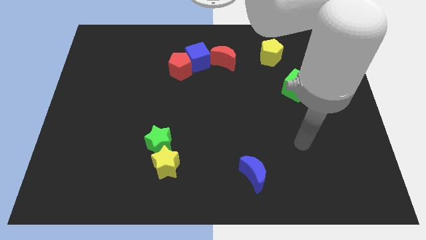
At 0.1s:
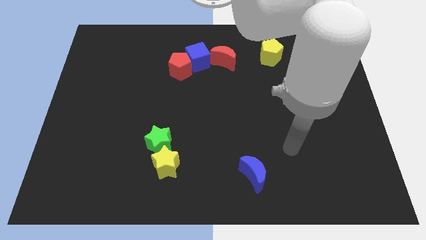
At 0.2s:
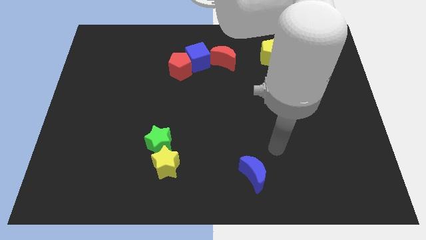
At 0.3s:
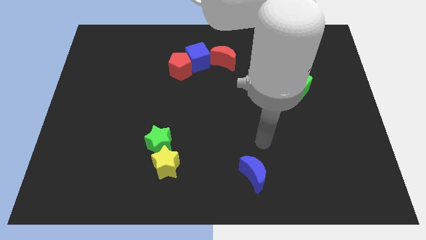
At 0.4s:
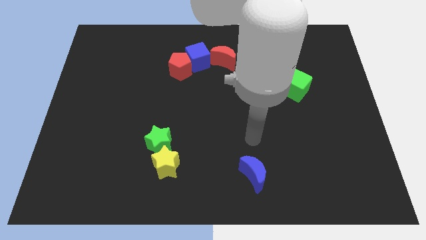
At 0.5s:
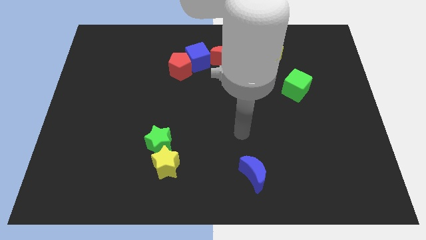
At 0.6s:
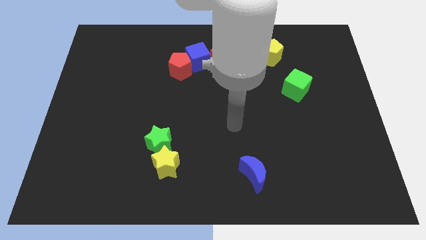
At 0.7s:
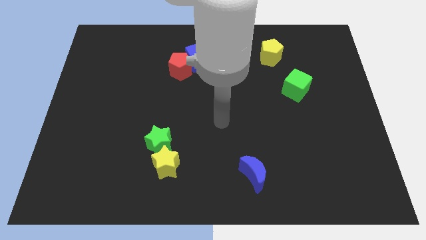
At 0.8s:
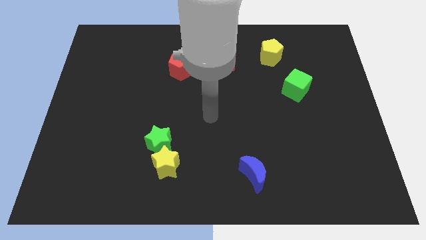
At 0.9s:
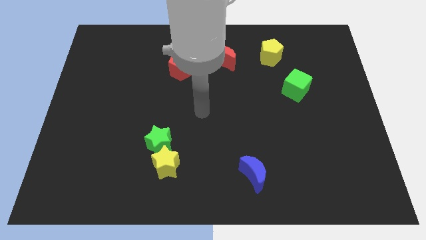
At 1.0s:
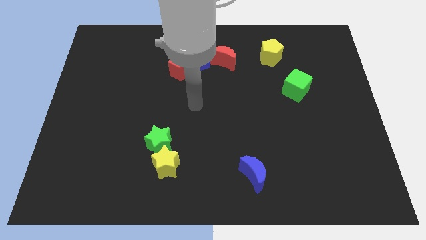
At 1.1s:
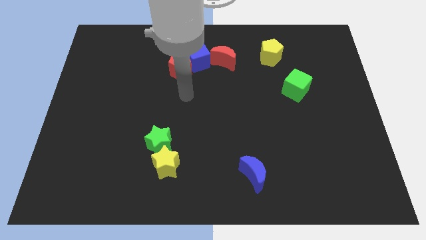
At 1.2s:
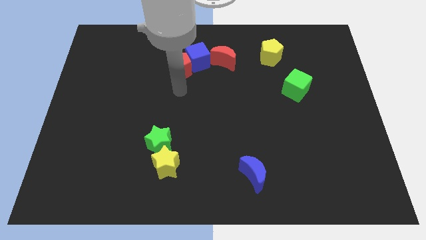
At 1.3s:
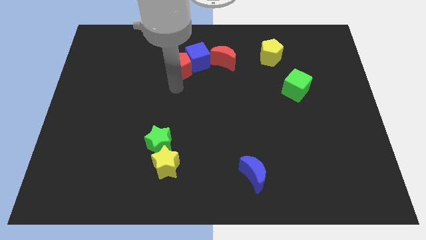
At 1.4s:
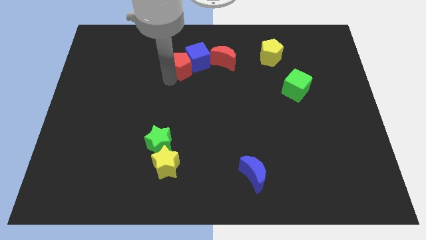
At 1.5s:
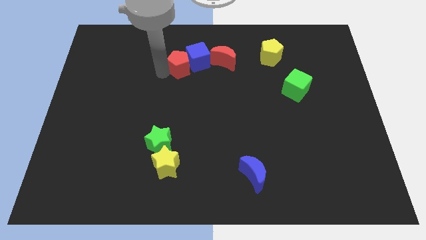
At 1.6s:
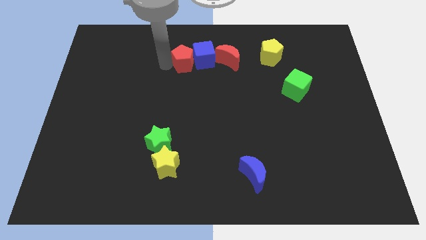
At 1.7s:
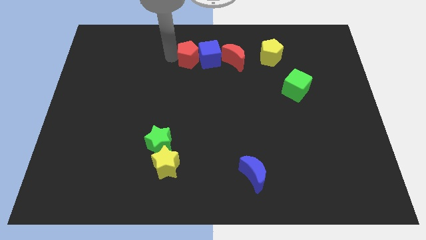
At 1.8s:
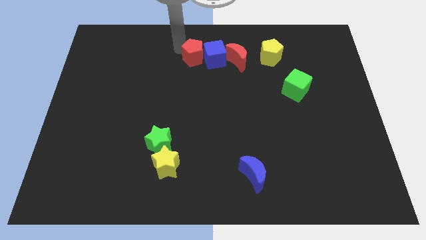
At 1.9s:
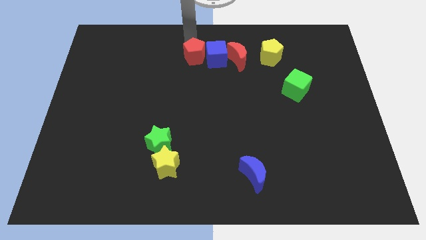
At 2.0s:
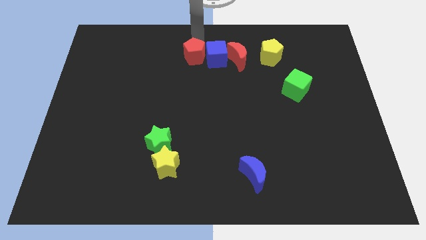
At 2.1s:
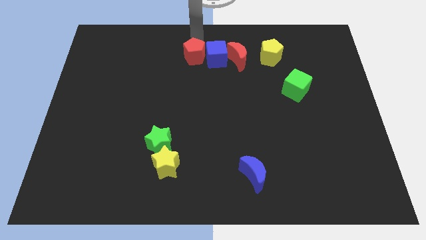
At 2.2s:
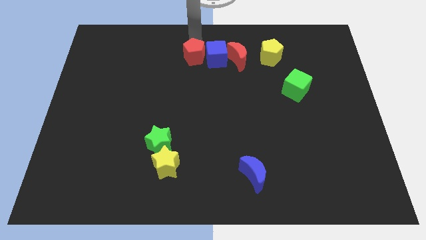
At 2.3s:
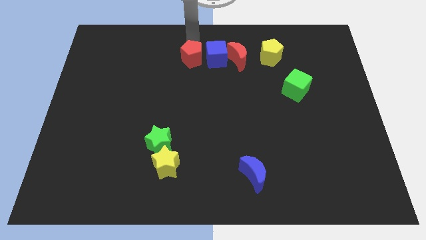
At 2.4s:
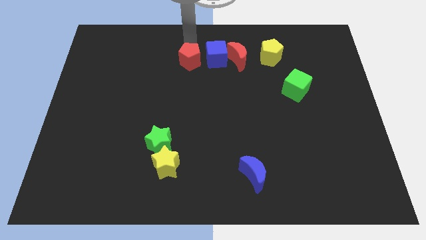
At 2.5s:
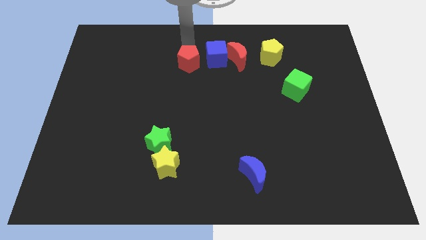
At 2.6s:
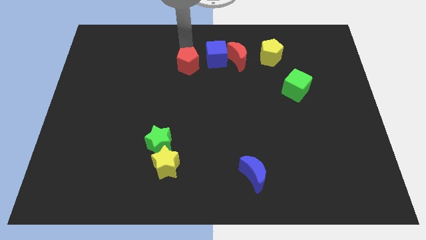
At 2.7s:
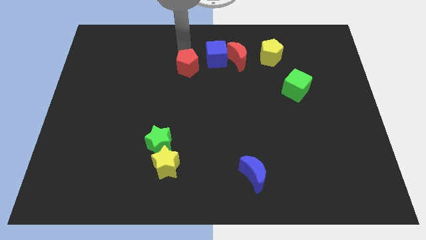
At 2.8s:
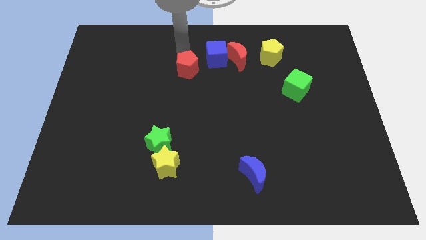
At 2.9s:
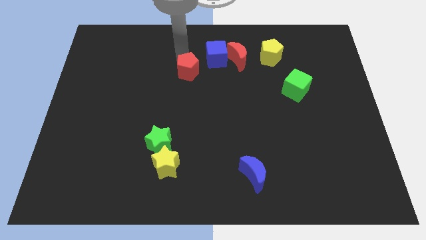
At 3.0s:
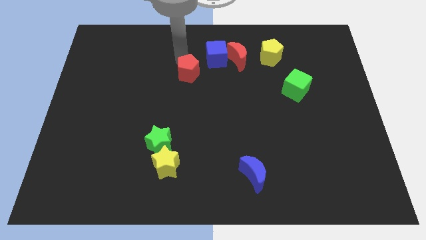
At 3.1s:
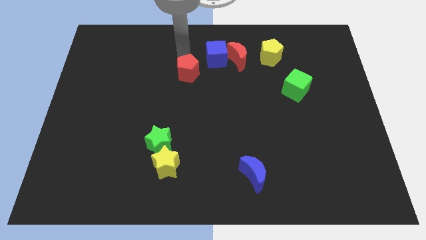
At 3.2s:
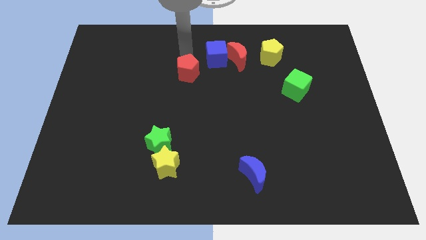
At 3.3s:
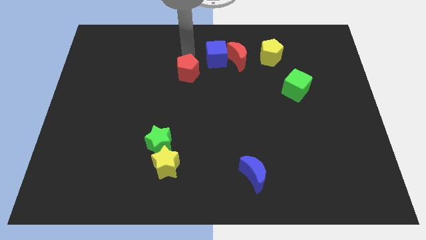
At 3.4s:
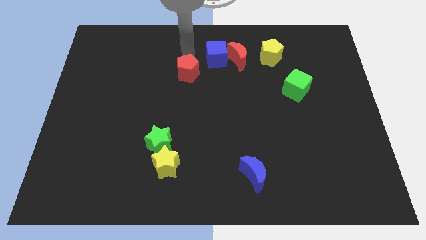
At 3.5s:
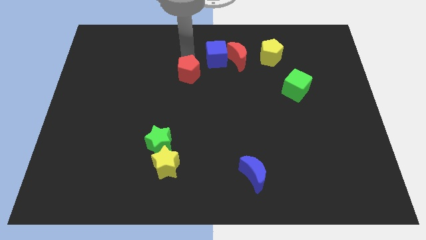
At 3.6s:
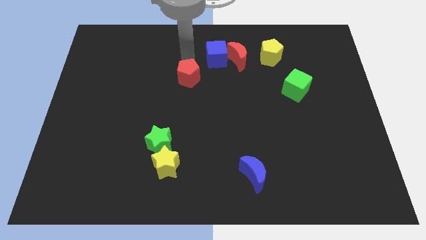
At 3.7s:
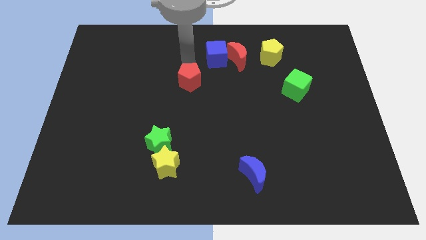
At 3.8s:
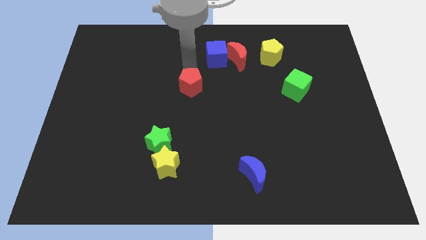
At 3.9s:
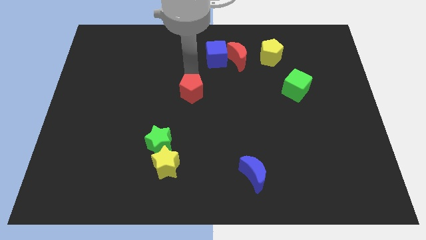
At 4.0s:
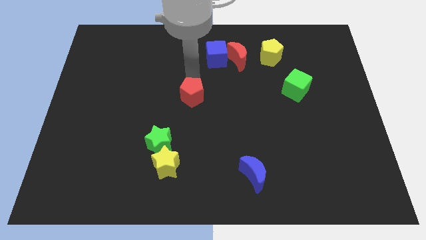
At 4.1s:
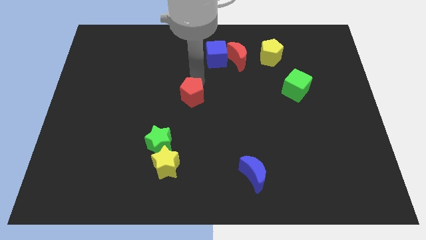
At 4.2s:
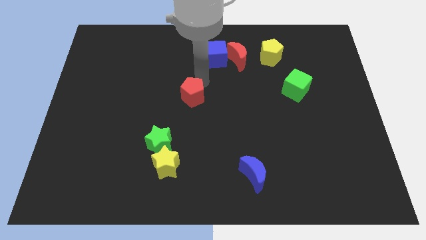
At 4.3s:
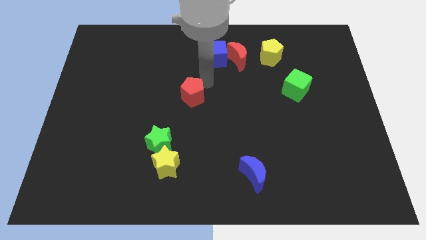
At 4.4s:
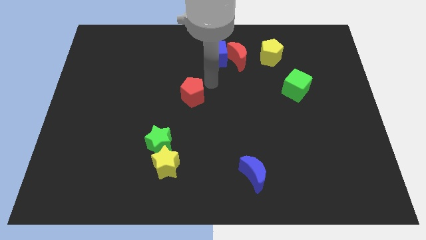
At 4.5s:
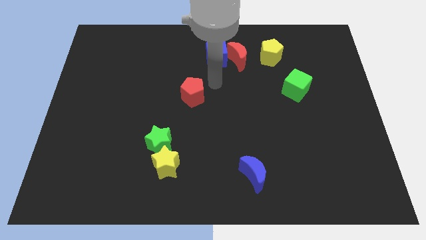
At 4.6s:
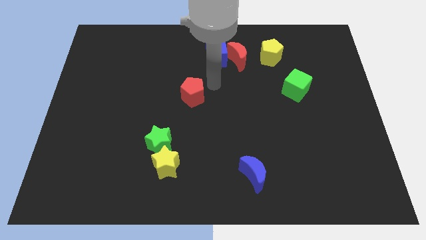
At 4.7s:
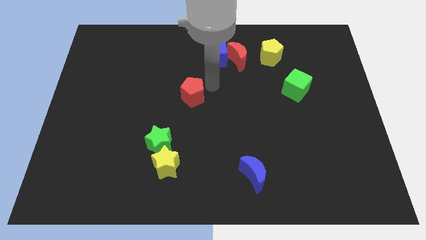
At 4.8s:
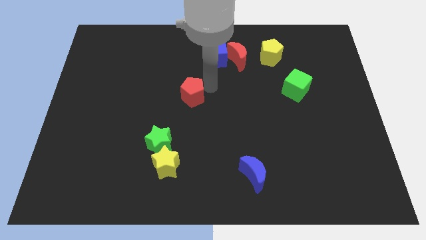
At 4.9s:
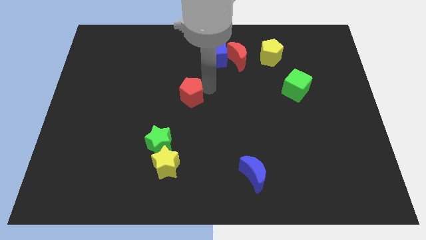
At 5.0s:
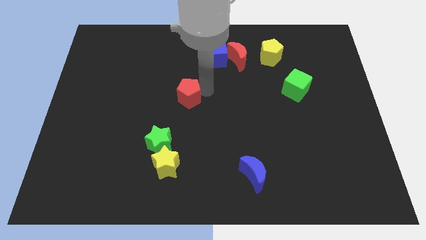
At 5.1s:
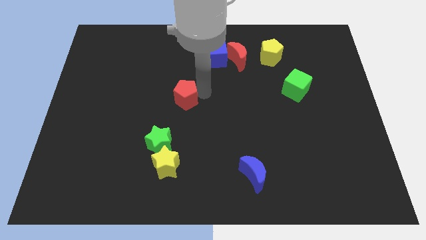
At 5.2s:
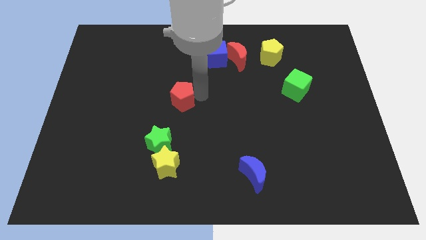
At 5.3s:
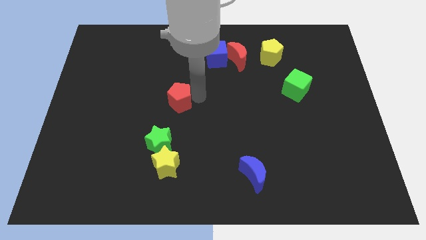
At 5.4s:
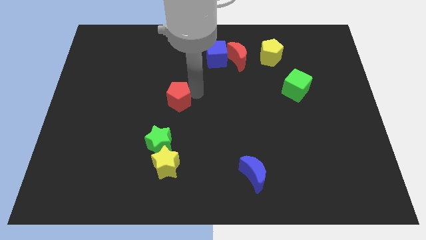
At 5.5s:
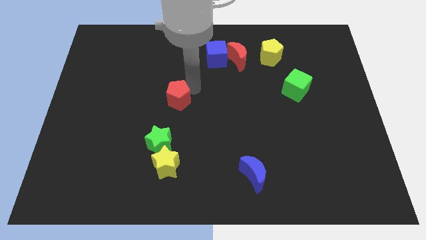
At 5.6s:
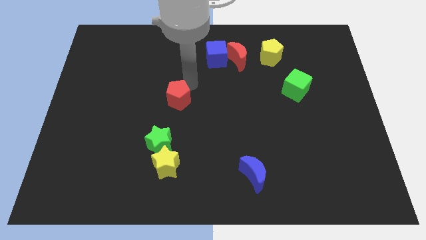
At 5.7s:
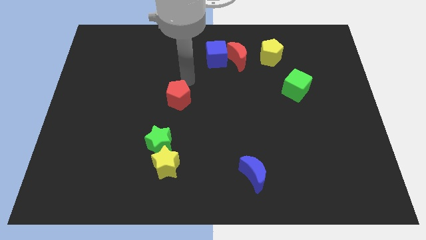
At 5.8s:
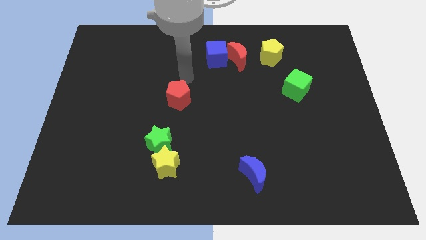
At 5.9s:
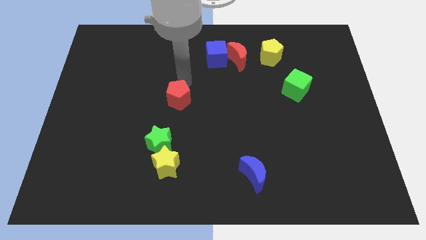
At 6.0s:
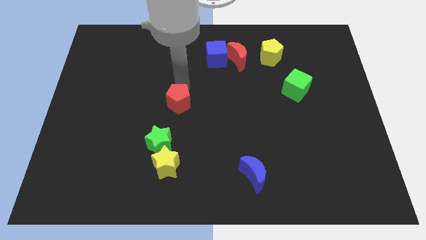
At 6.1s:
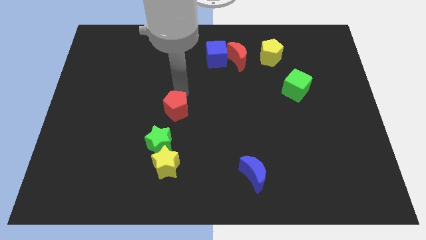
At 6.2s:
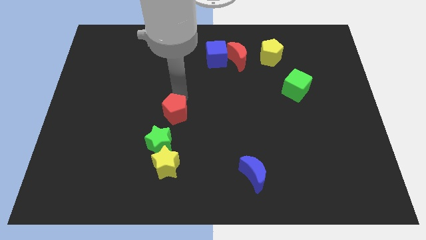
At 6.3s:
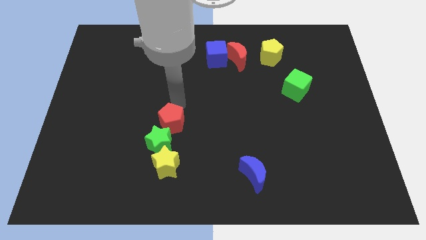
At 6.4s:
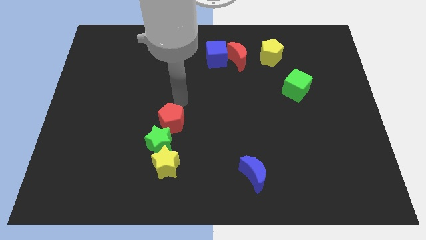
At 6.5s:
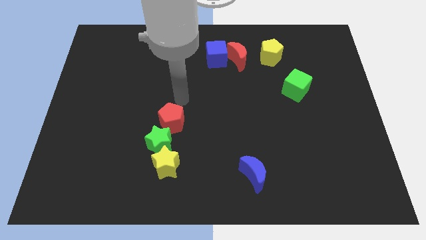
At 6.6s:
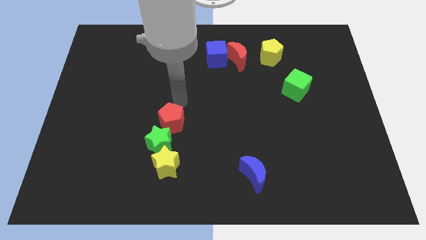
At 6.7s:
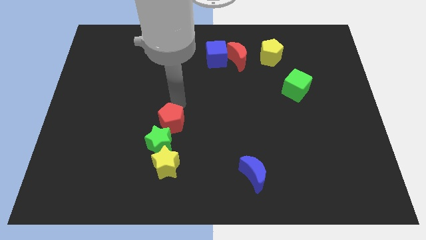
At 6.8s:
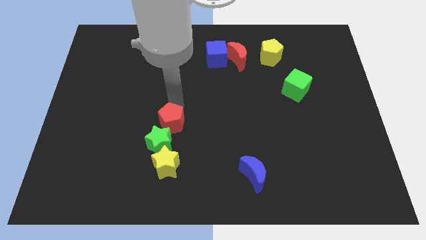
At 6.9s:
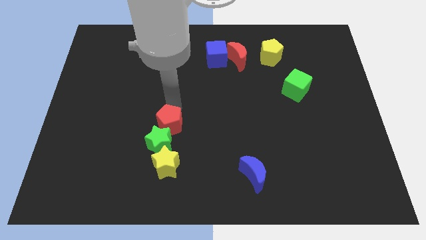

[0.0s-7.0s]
put the red pentagon towards the green star
